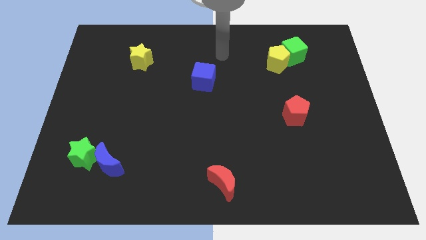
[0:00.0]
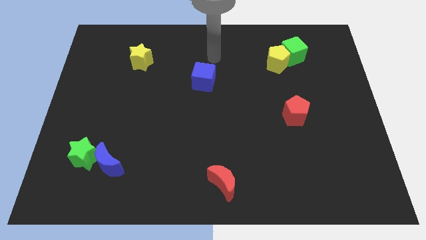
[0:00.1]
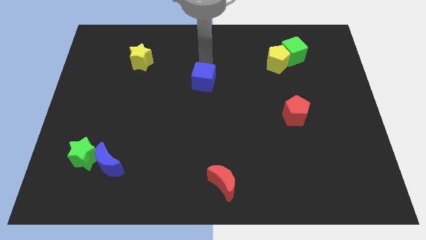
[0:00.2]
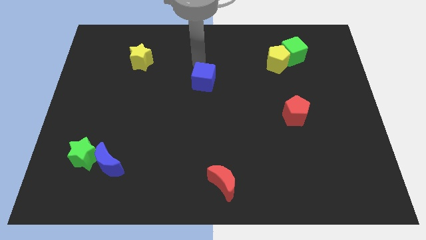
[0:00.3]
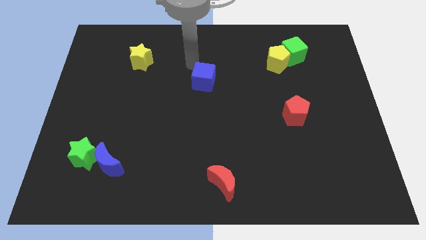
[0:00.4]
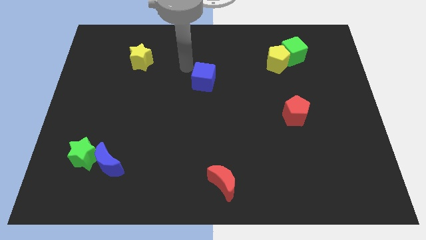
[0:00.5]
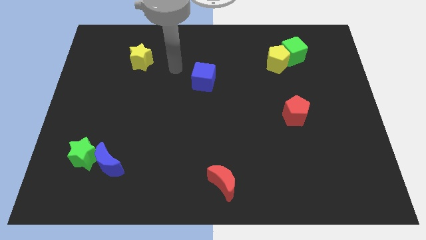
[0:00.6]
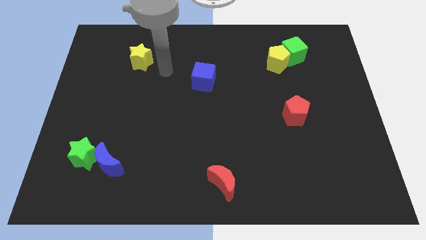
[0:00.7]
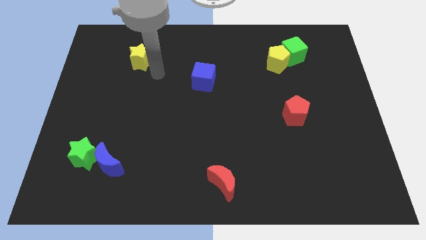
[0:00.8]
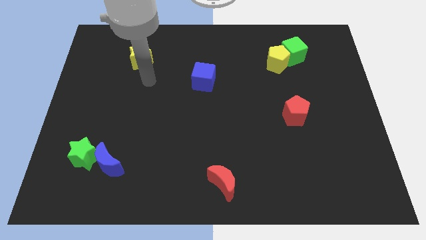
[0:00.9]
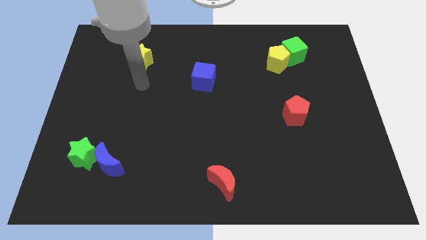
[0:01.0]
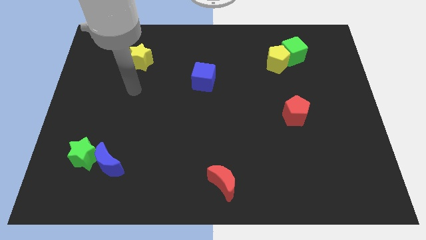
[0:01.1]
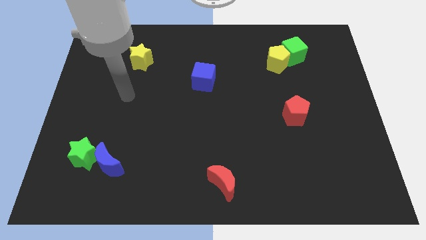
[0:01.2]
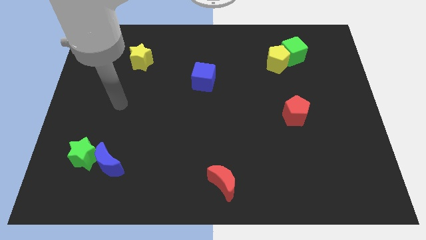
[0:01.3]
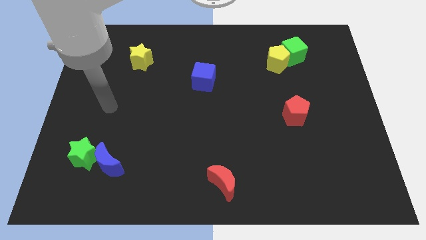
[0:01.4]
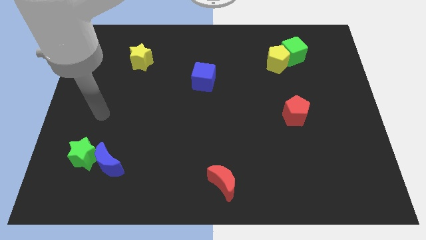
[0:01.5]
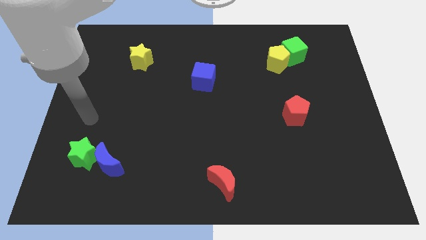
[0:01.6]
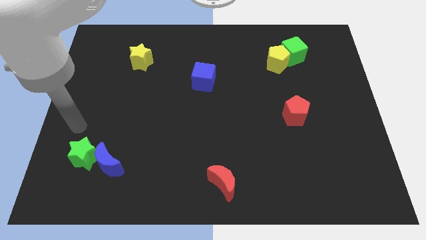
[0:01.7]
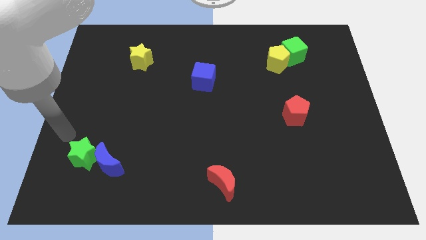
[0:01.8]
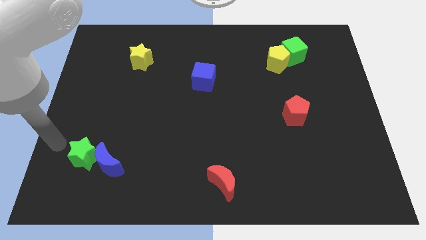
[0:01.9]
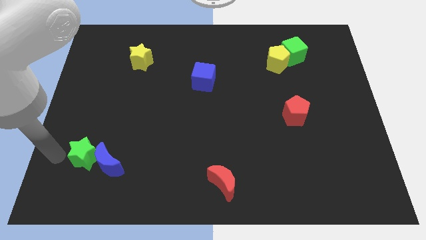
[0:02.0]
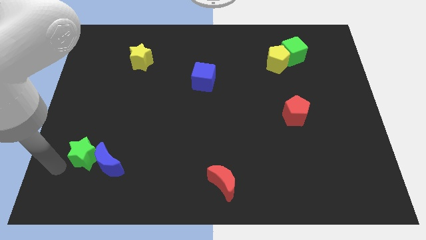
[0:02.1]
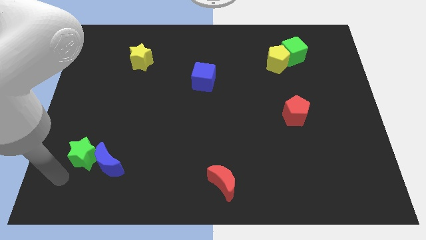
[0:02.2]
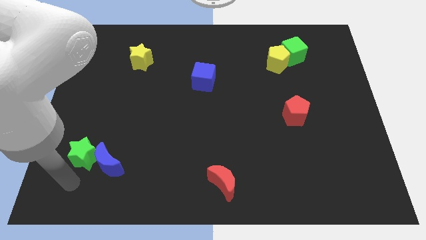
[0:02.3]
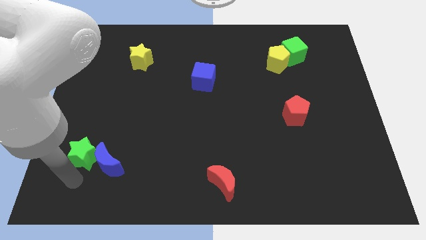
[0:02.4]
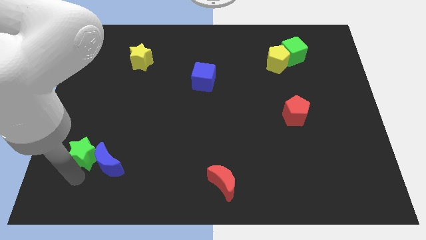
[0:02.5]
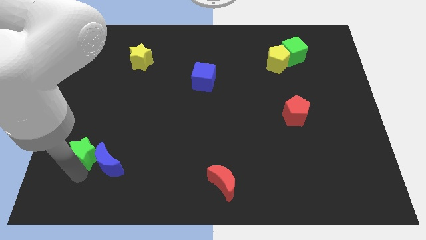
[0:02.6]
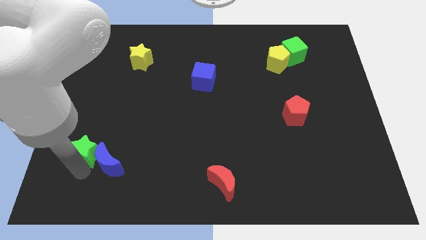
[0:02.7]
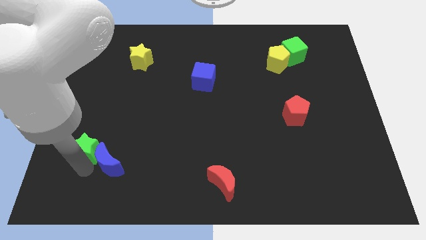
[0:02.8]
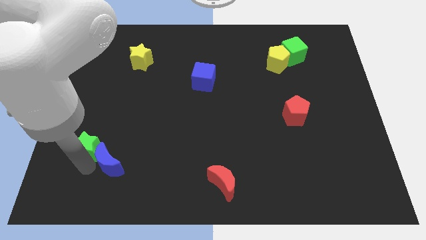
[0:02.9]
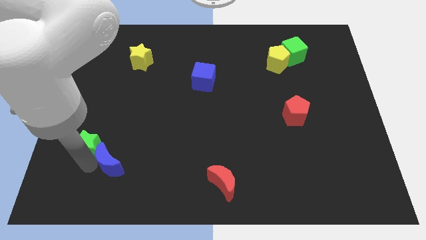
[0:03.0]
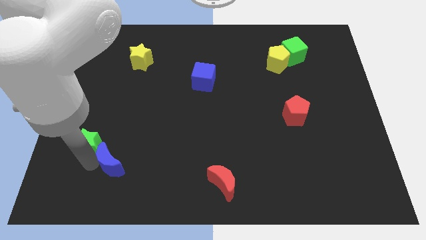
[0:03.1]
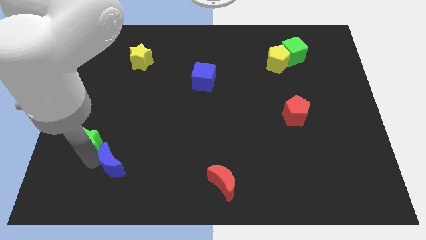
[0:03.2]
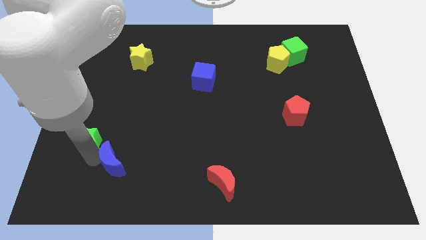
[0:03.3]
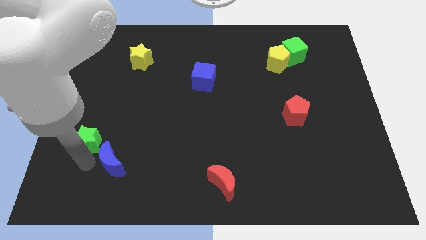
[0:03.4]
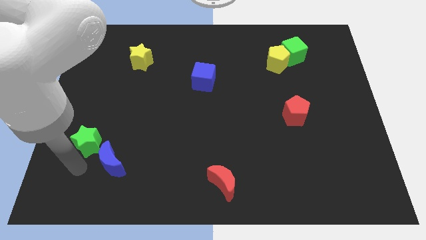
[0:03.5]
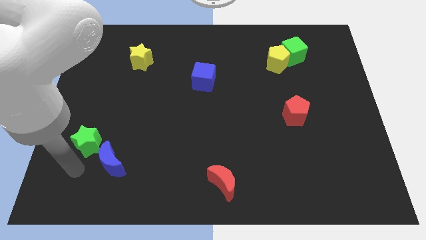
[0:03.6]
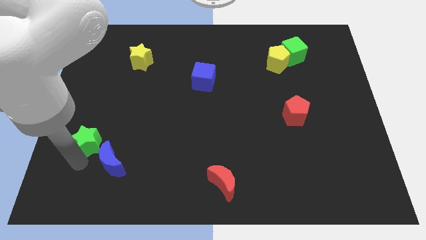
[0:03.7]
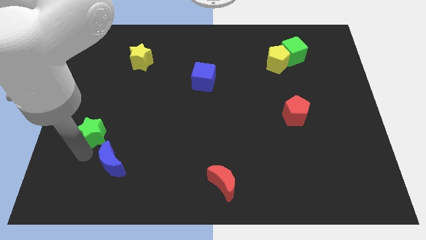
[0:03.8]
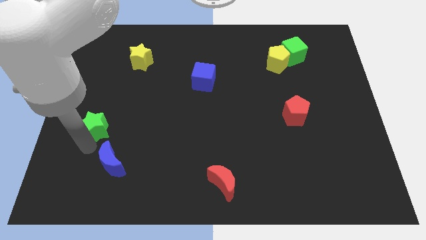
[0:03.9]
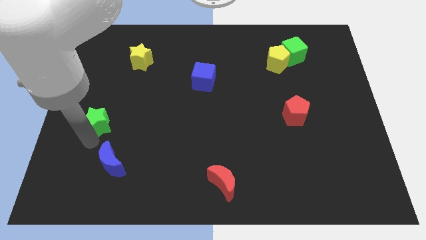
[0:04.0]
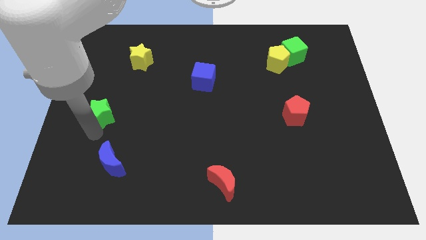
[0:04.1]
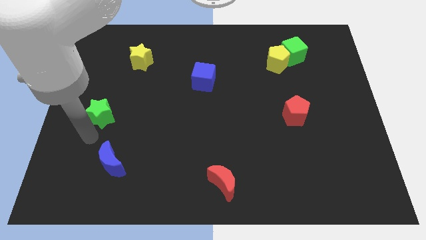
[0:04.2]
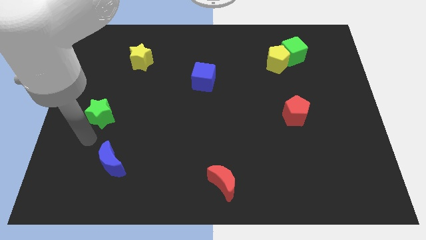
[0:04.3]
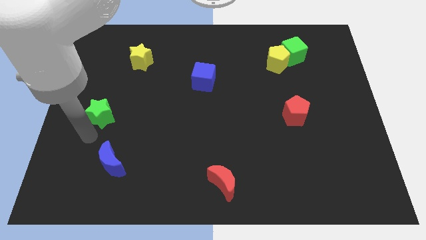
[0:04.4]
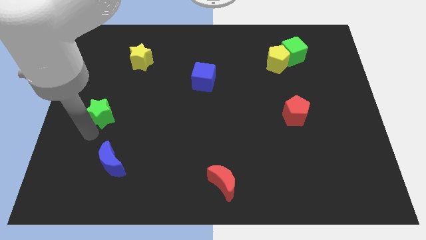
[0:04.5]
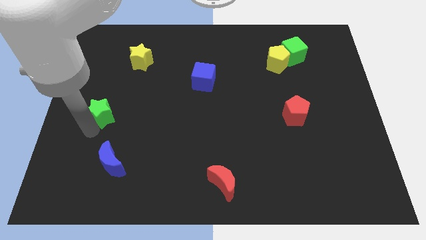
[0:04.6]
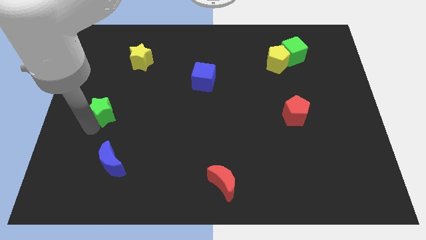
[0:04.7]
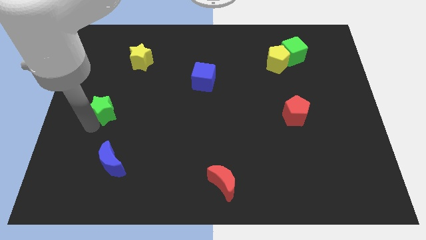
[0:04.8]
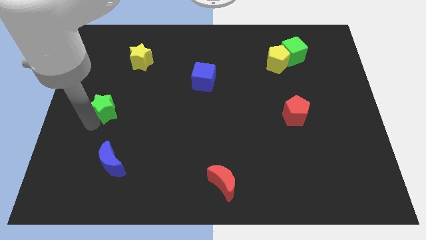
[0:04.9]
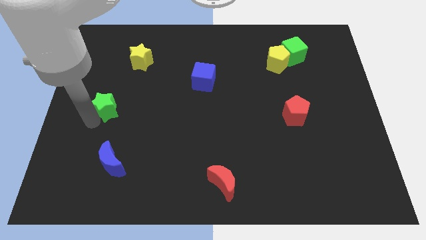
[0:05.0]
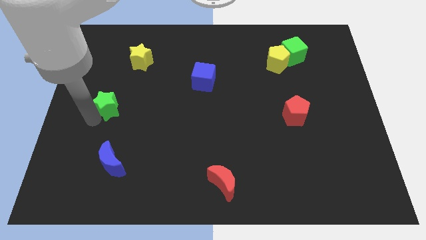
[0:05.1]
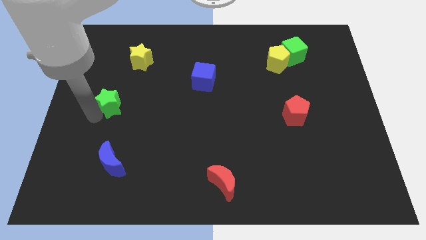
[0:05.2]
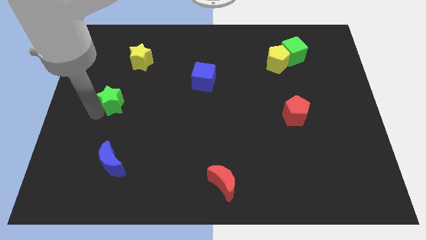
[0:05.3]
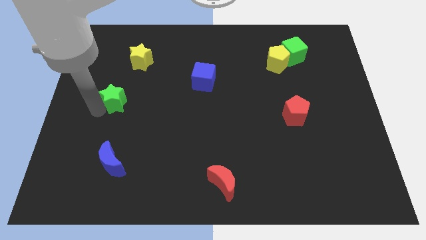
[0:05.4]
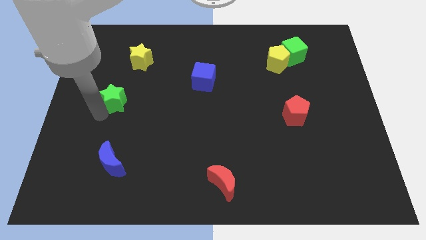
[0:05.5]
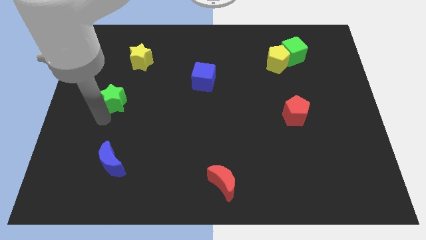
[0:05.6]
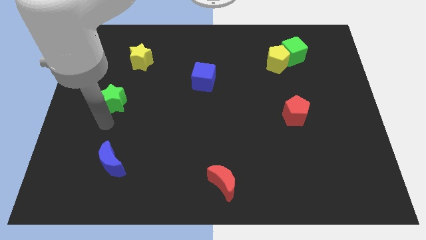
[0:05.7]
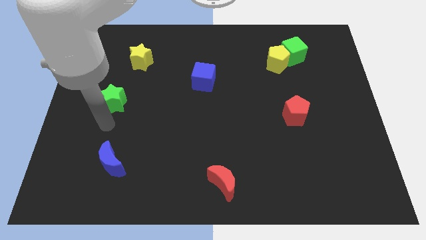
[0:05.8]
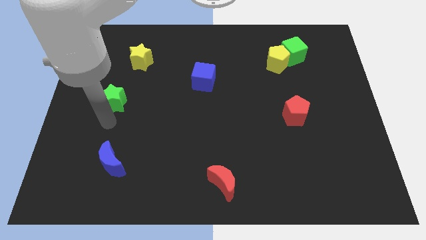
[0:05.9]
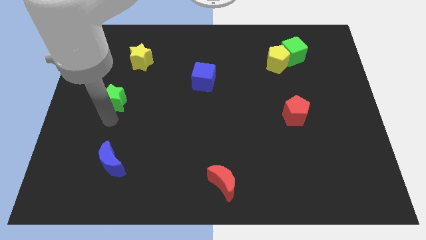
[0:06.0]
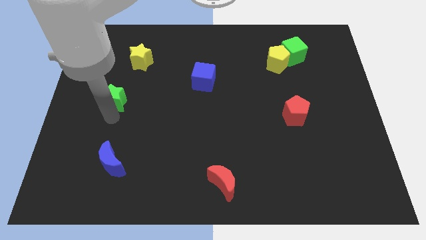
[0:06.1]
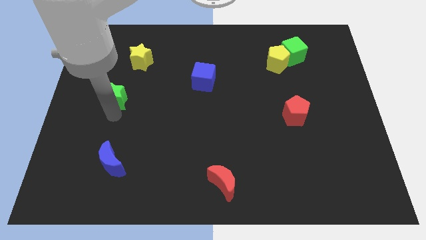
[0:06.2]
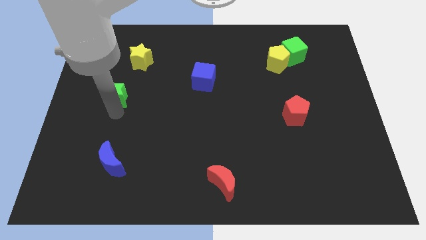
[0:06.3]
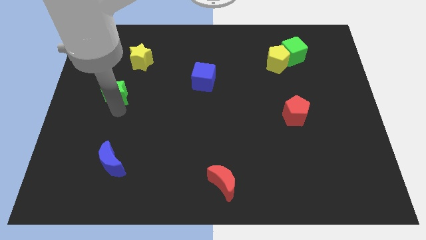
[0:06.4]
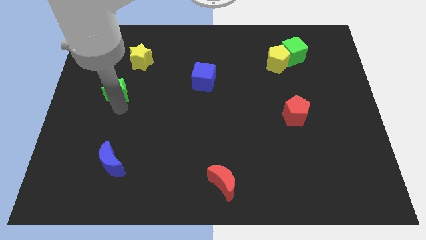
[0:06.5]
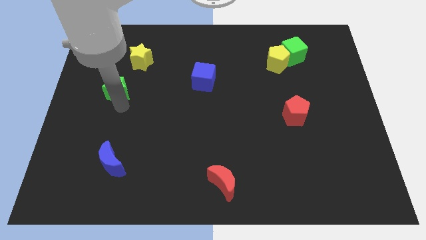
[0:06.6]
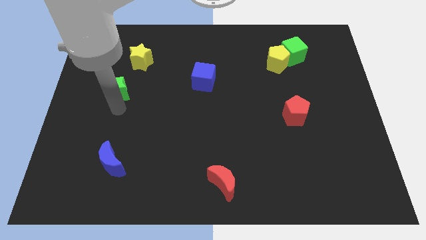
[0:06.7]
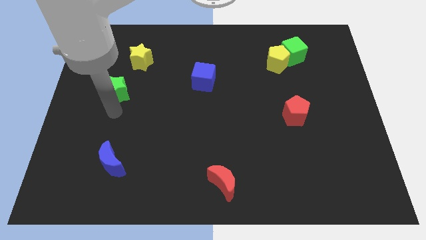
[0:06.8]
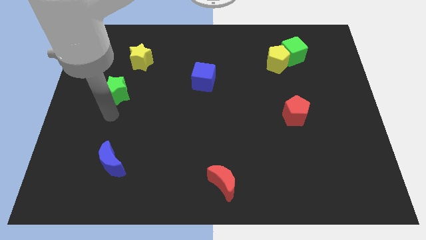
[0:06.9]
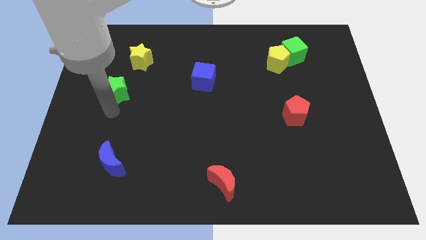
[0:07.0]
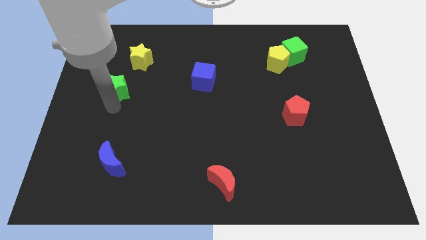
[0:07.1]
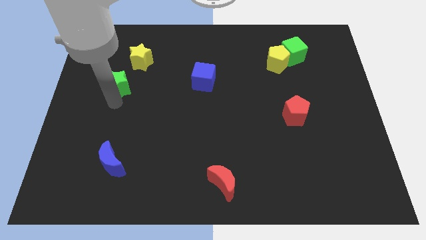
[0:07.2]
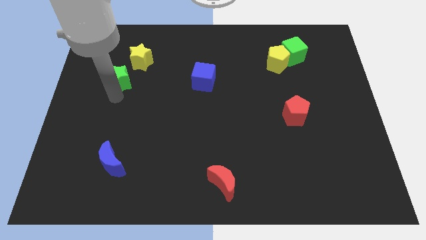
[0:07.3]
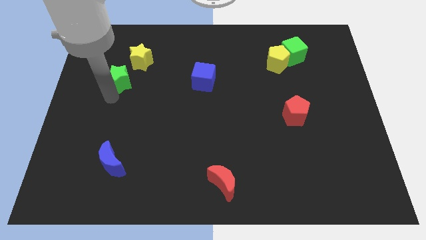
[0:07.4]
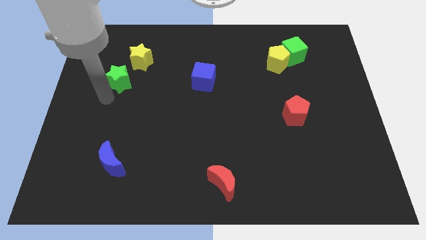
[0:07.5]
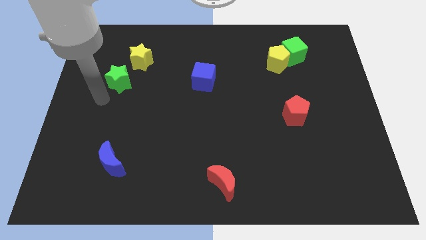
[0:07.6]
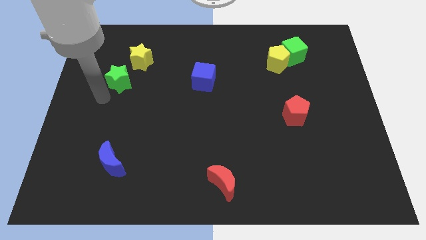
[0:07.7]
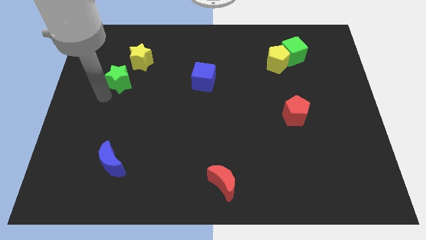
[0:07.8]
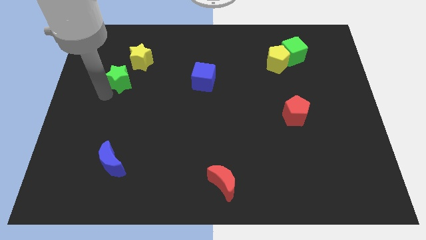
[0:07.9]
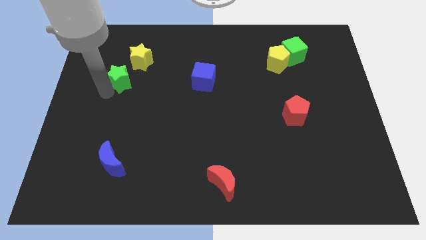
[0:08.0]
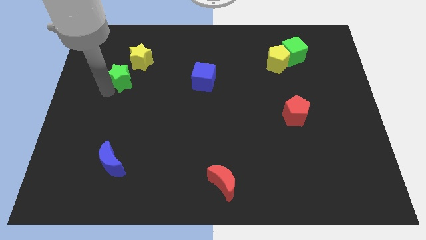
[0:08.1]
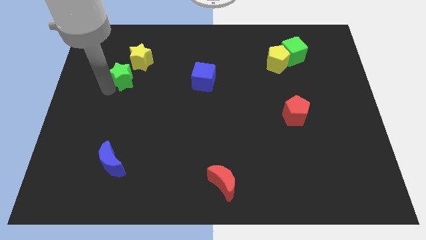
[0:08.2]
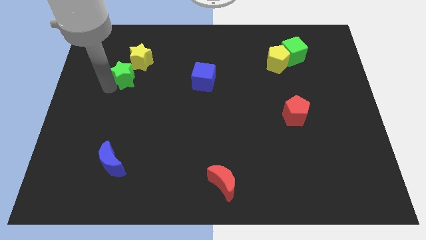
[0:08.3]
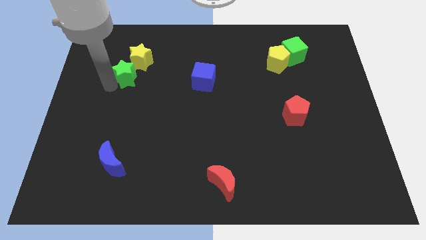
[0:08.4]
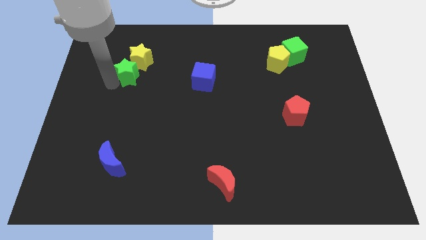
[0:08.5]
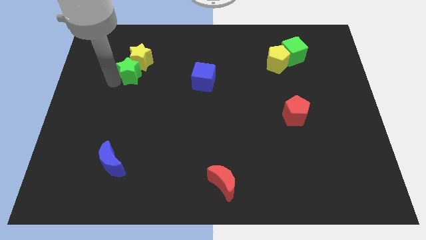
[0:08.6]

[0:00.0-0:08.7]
move the green star towards the yellow star
